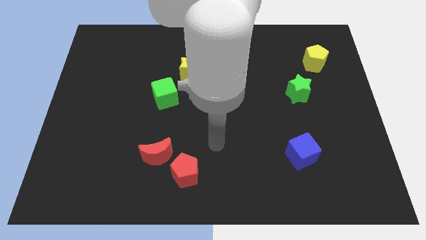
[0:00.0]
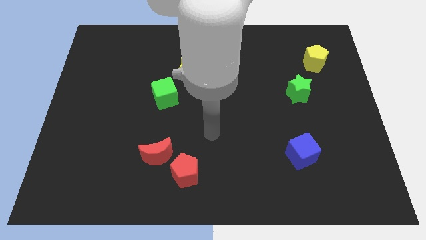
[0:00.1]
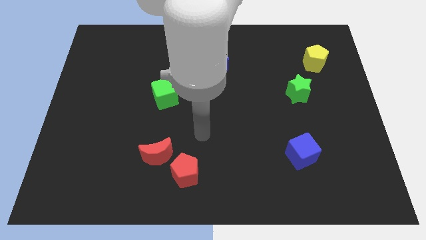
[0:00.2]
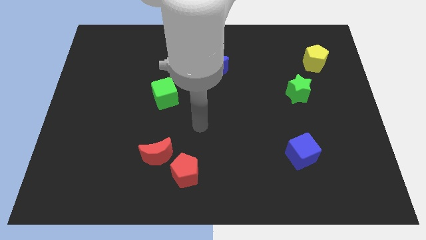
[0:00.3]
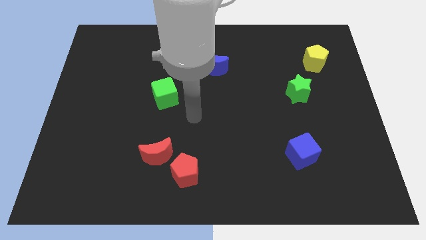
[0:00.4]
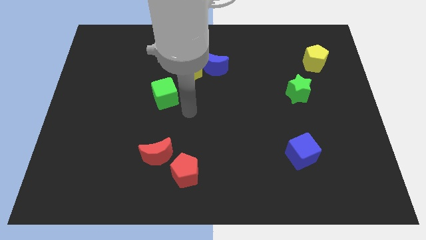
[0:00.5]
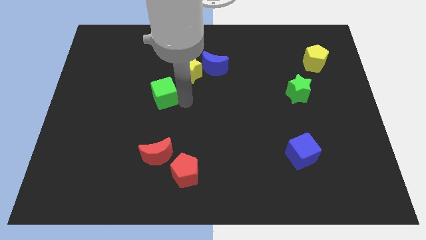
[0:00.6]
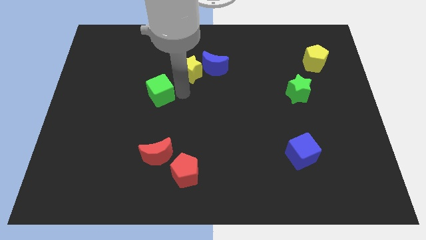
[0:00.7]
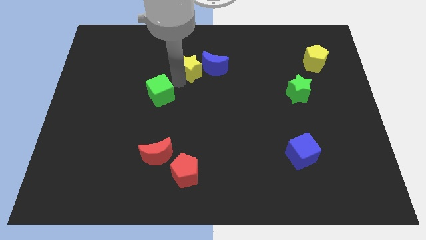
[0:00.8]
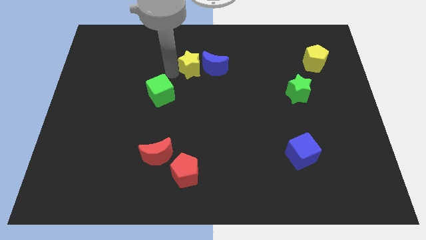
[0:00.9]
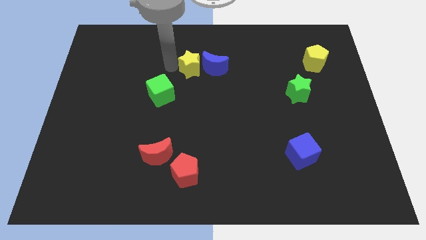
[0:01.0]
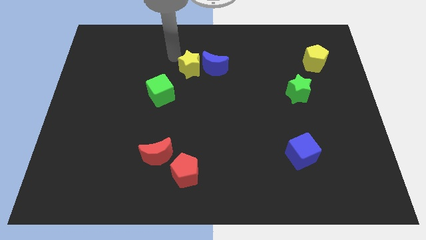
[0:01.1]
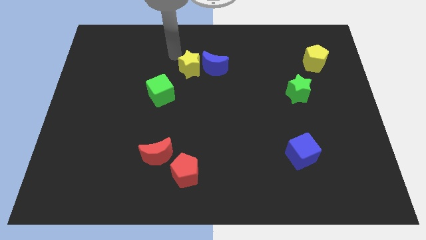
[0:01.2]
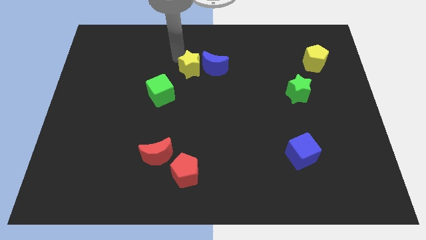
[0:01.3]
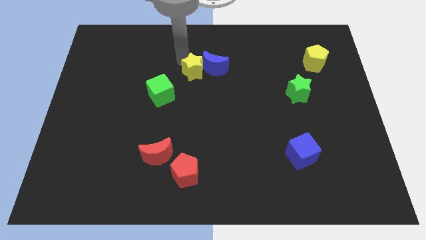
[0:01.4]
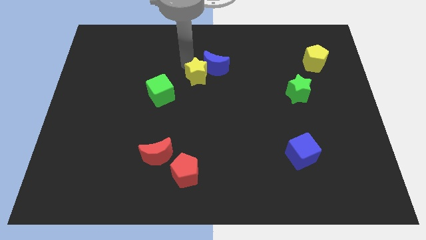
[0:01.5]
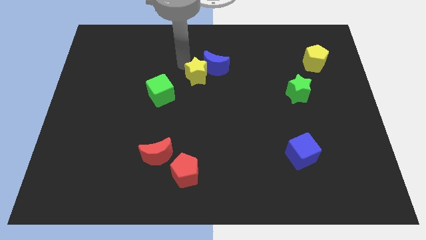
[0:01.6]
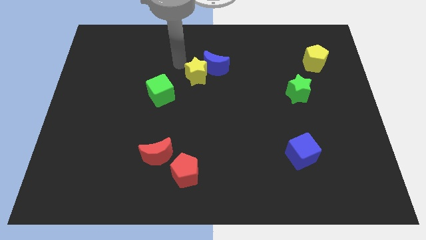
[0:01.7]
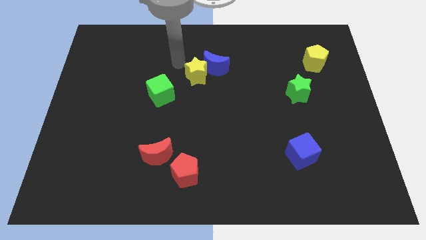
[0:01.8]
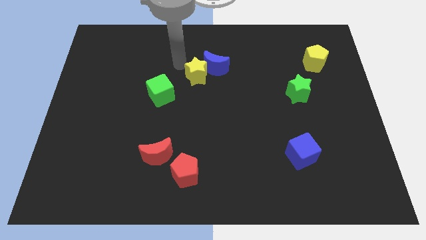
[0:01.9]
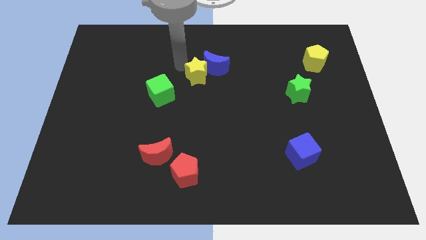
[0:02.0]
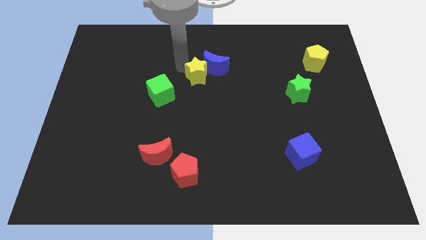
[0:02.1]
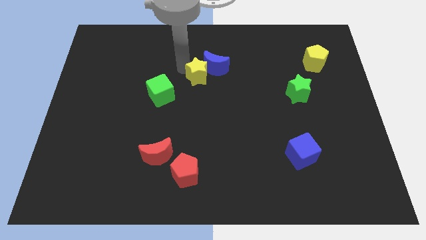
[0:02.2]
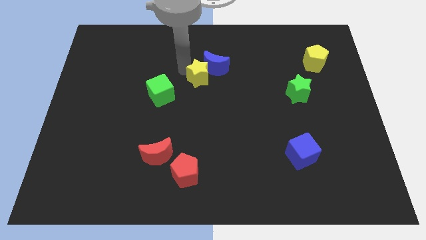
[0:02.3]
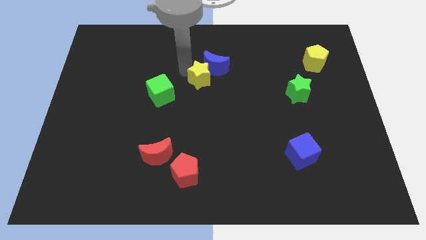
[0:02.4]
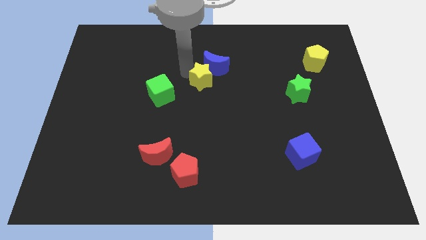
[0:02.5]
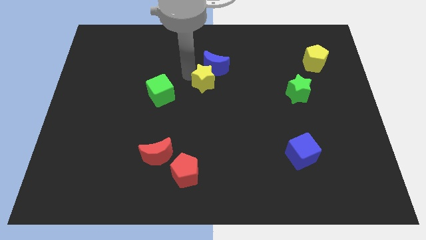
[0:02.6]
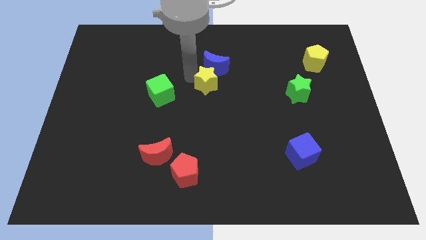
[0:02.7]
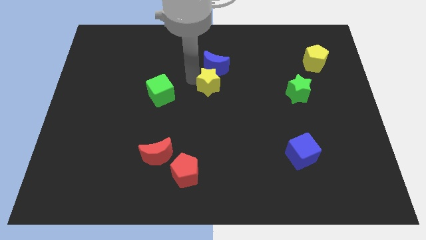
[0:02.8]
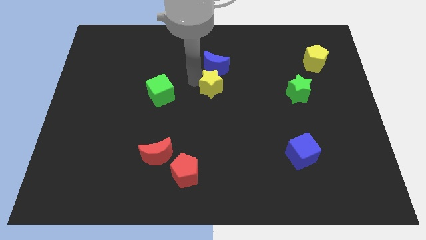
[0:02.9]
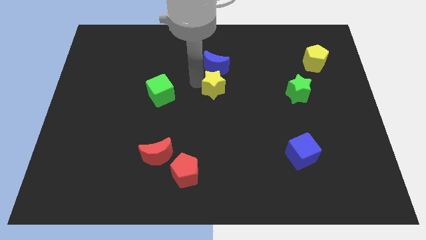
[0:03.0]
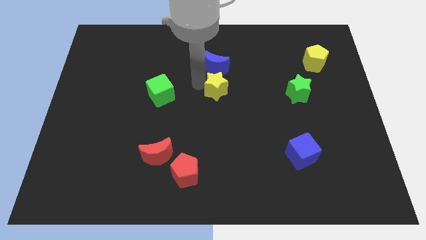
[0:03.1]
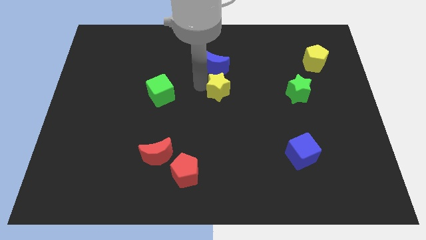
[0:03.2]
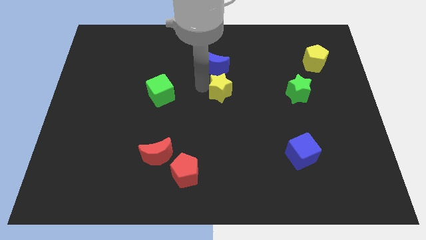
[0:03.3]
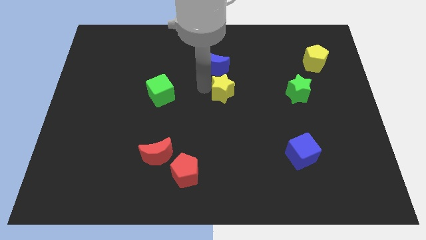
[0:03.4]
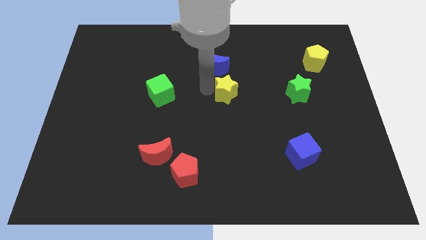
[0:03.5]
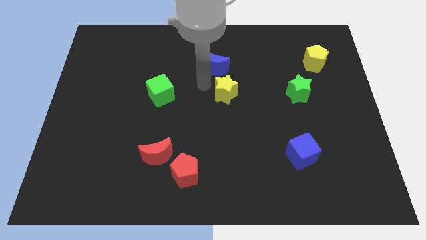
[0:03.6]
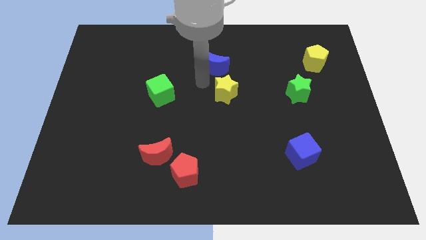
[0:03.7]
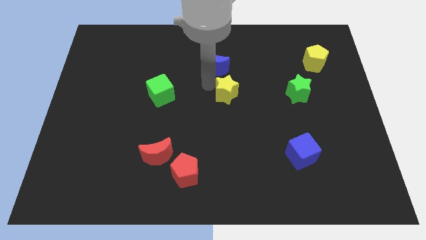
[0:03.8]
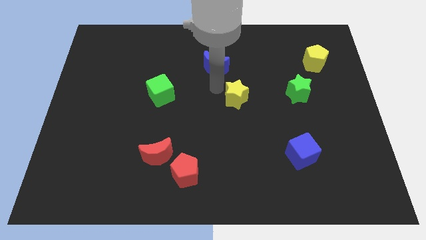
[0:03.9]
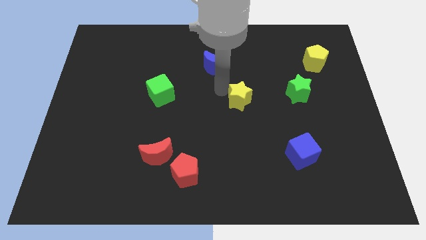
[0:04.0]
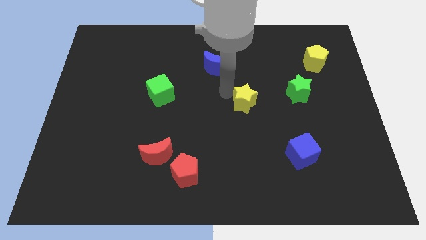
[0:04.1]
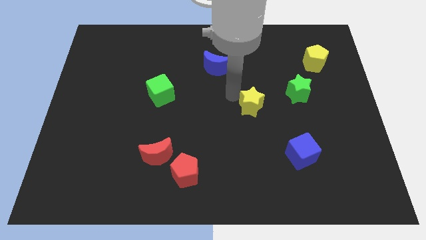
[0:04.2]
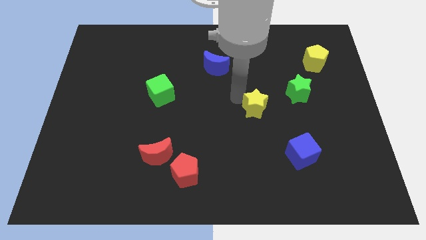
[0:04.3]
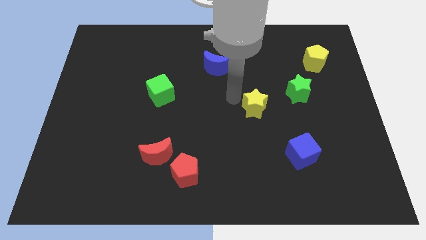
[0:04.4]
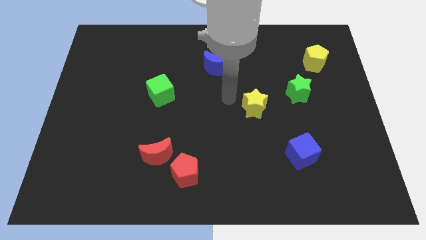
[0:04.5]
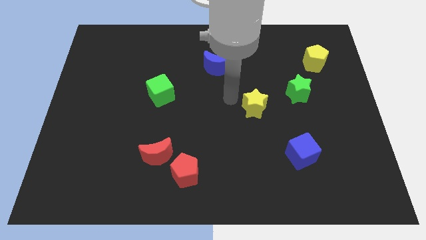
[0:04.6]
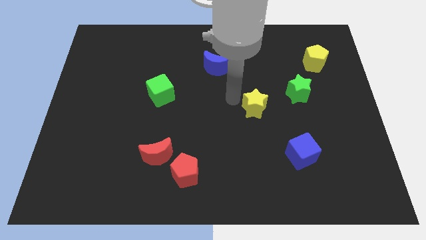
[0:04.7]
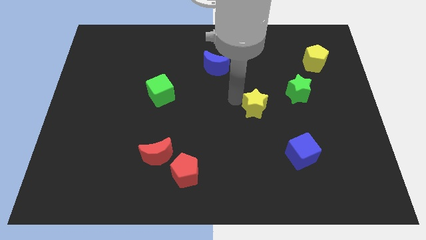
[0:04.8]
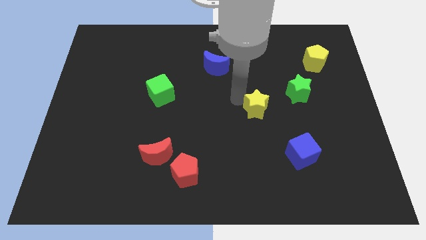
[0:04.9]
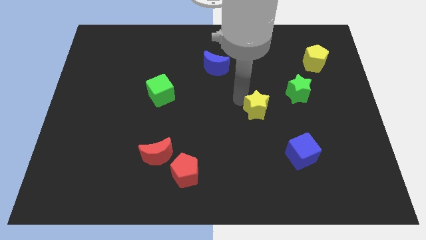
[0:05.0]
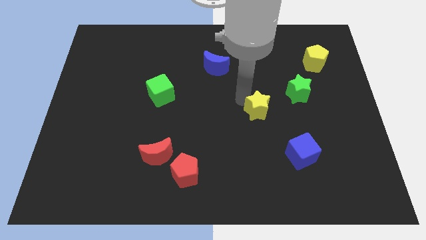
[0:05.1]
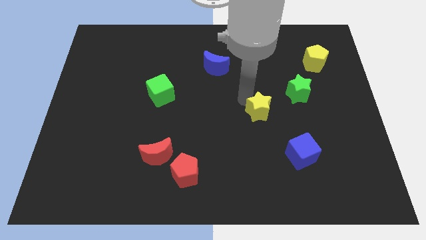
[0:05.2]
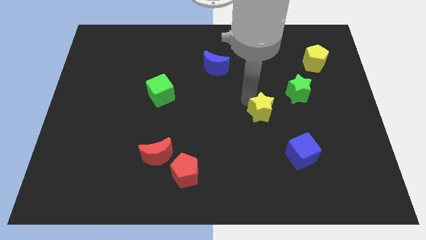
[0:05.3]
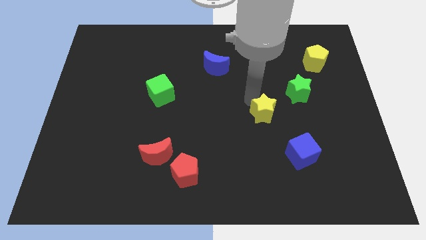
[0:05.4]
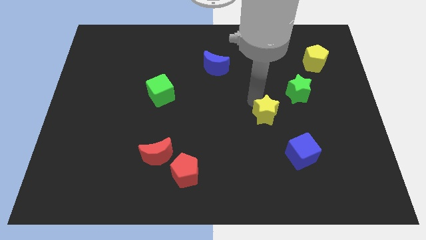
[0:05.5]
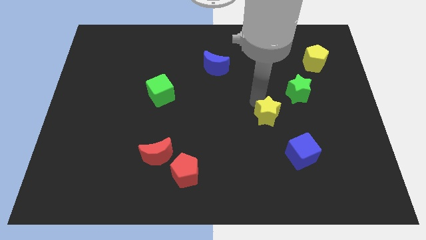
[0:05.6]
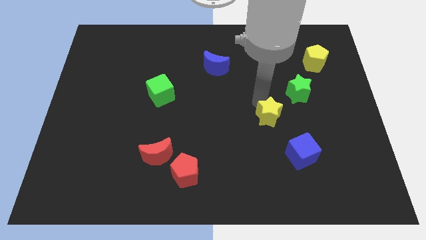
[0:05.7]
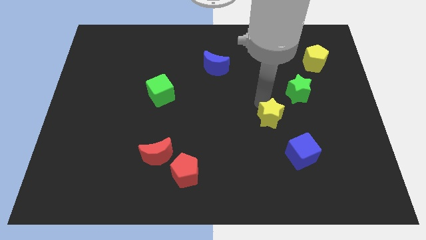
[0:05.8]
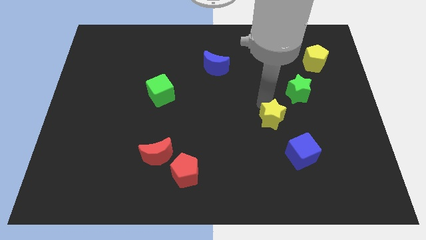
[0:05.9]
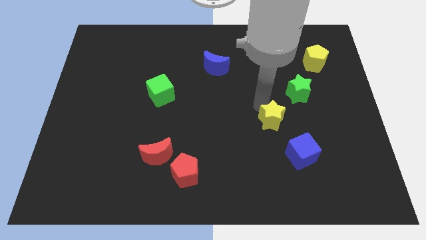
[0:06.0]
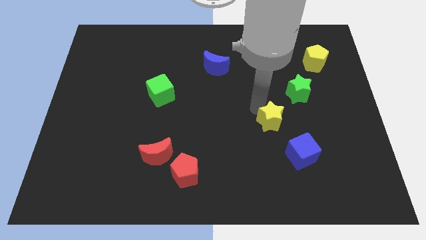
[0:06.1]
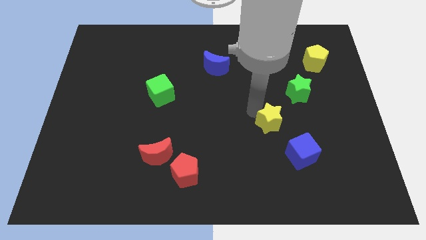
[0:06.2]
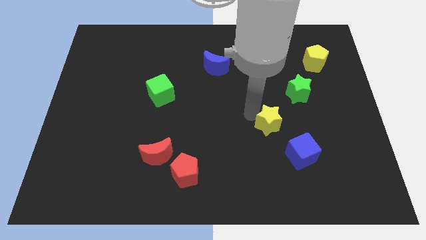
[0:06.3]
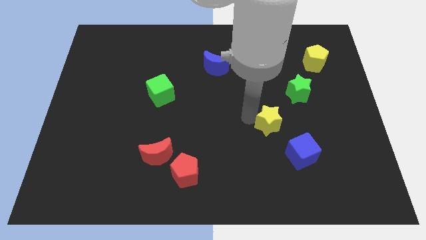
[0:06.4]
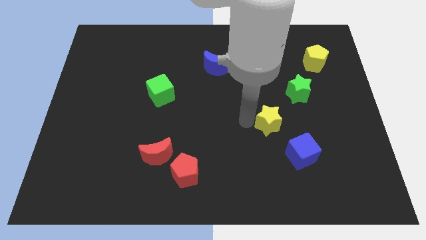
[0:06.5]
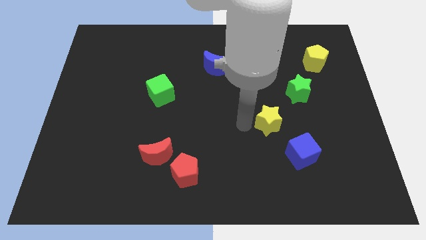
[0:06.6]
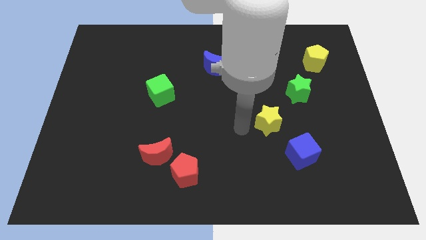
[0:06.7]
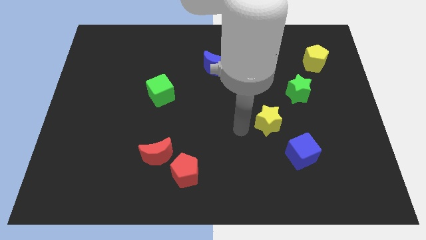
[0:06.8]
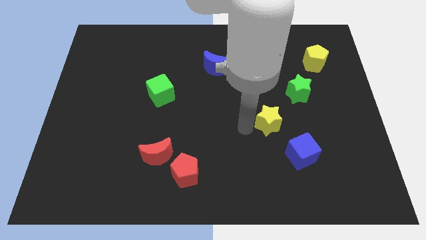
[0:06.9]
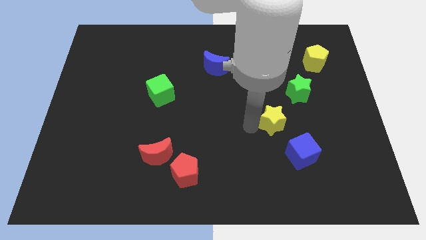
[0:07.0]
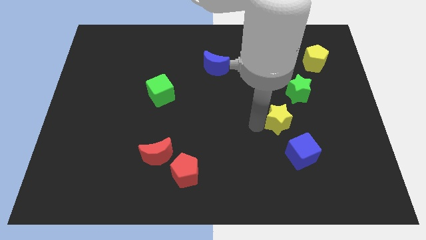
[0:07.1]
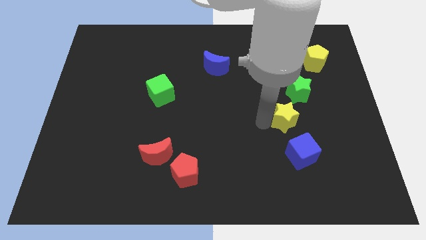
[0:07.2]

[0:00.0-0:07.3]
push the yellow star to the bottom side of the green star

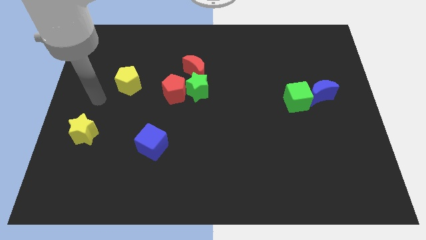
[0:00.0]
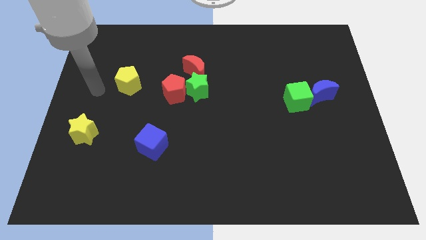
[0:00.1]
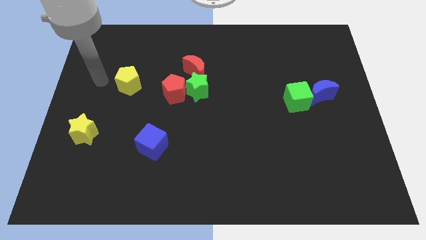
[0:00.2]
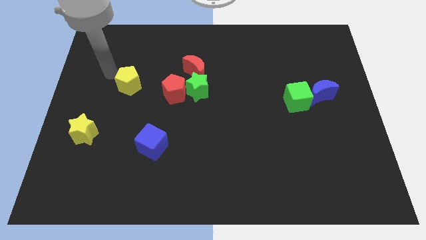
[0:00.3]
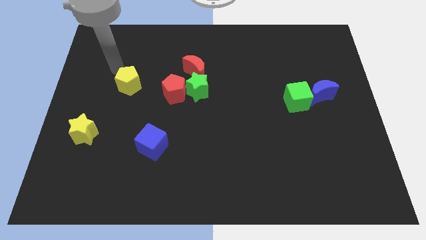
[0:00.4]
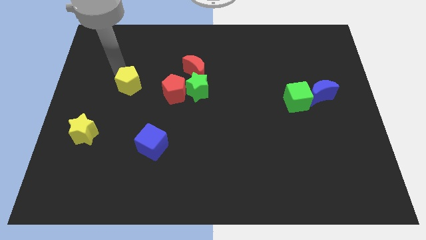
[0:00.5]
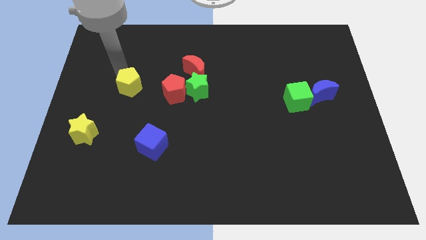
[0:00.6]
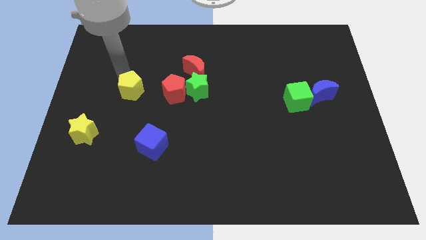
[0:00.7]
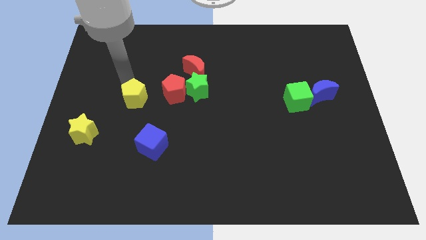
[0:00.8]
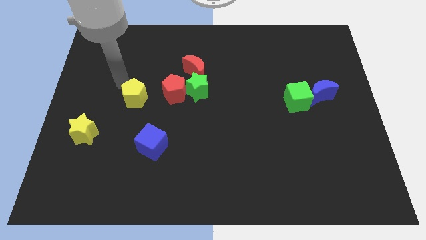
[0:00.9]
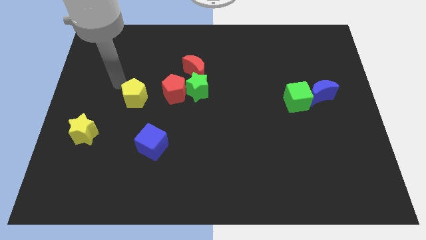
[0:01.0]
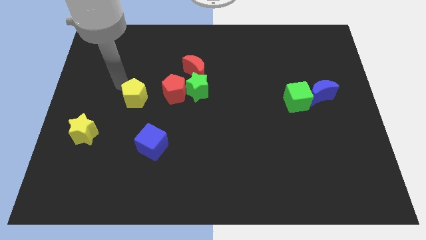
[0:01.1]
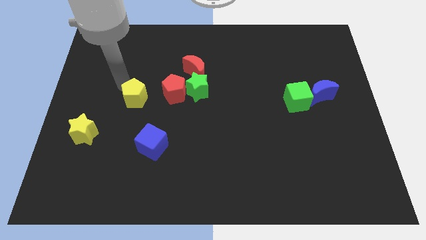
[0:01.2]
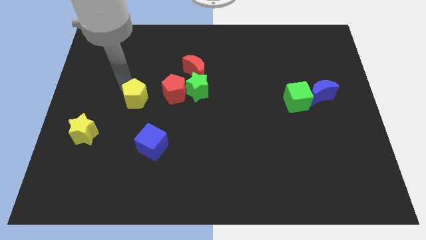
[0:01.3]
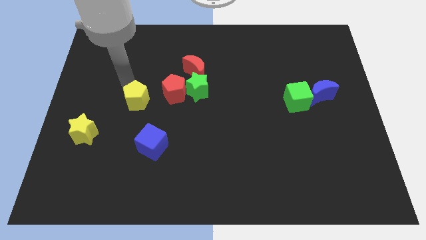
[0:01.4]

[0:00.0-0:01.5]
put the yellow pentagon diagonally down and to the left of the red pentagon
